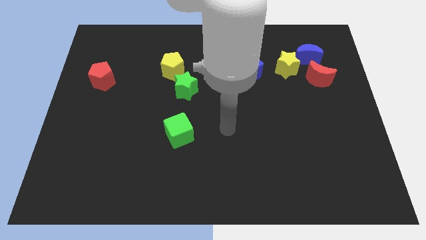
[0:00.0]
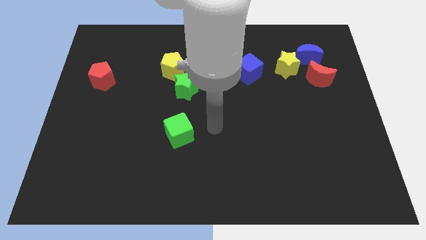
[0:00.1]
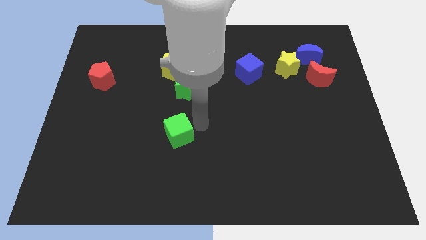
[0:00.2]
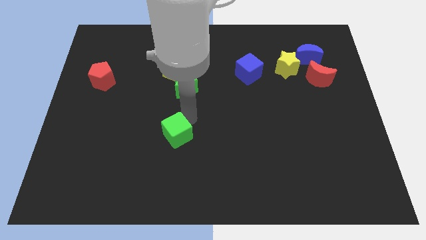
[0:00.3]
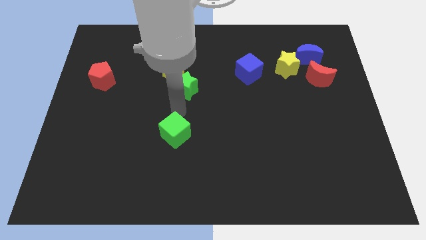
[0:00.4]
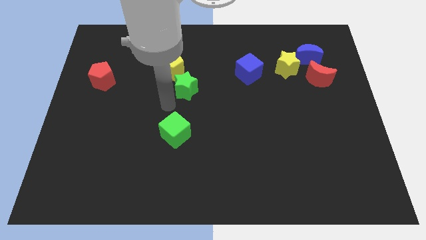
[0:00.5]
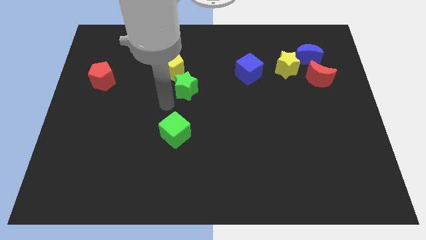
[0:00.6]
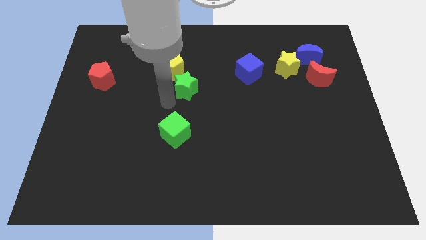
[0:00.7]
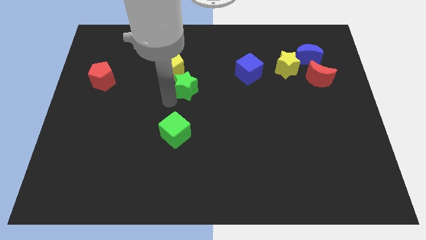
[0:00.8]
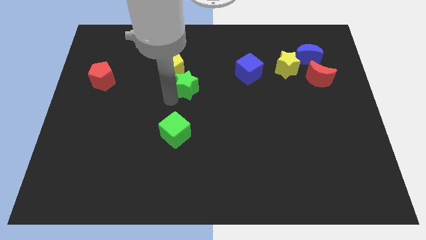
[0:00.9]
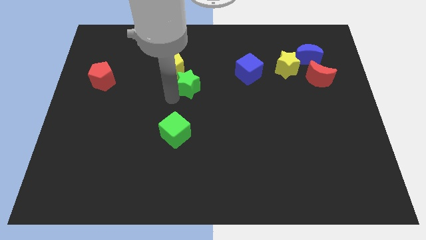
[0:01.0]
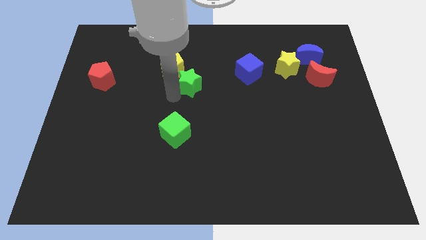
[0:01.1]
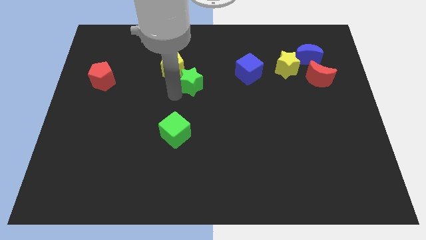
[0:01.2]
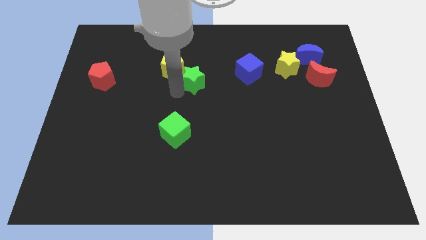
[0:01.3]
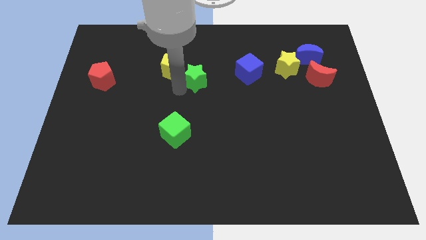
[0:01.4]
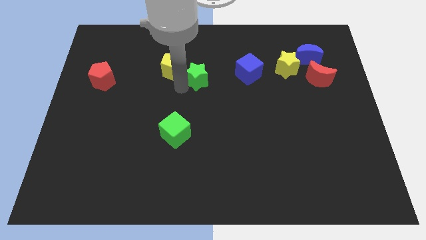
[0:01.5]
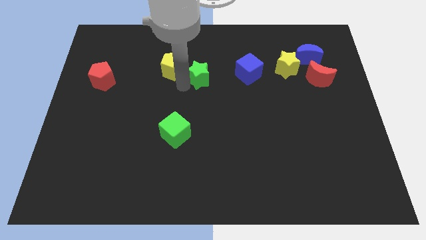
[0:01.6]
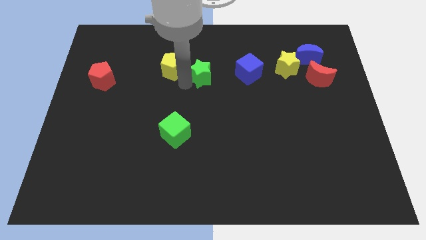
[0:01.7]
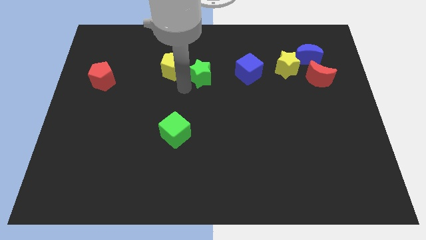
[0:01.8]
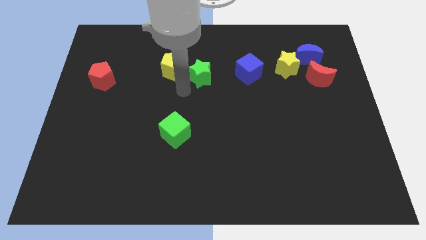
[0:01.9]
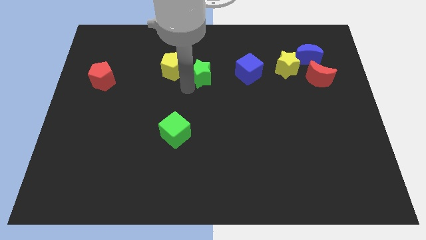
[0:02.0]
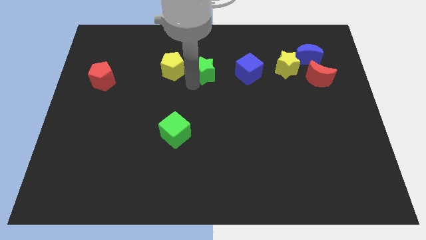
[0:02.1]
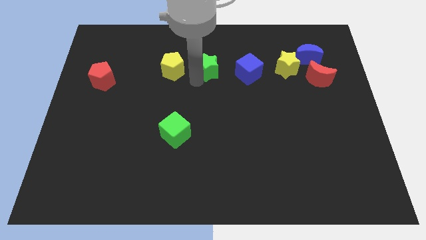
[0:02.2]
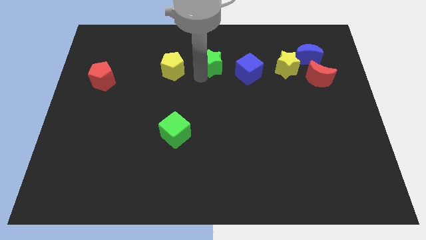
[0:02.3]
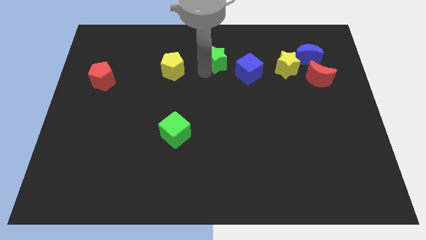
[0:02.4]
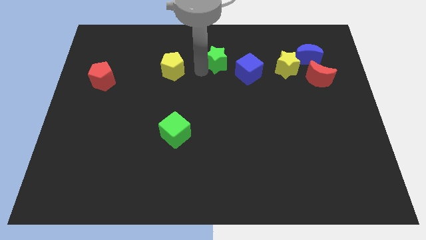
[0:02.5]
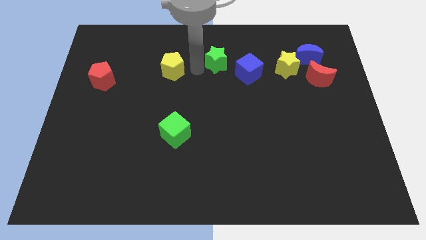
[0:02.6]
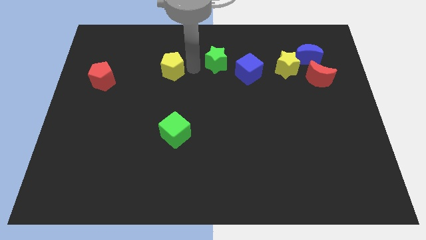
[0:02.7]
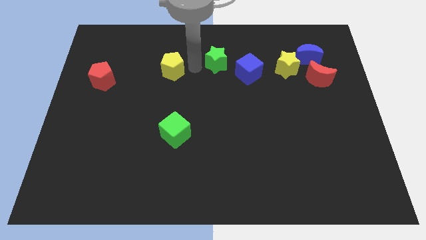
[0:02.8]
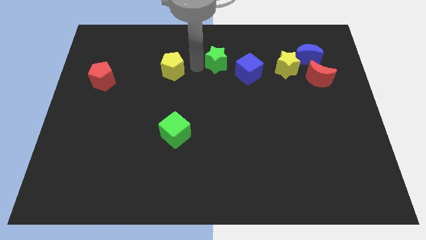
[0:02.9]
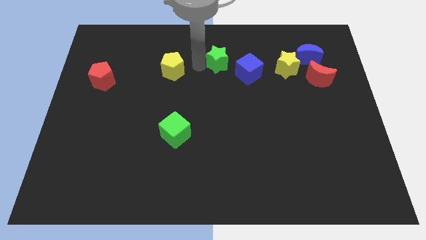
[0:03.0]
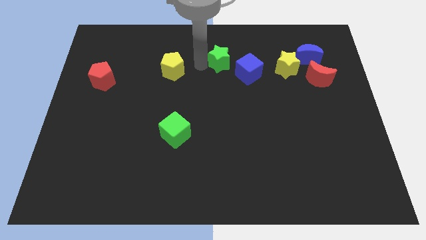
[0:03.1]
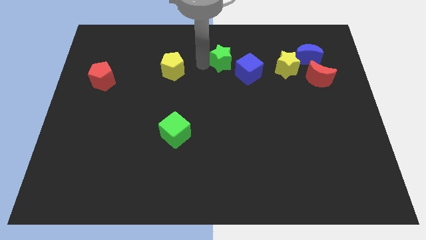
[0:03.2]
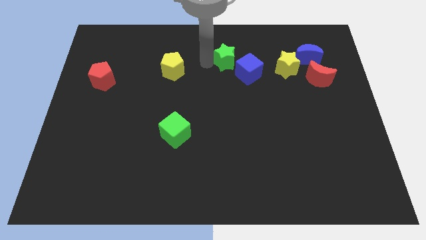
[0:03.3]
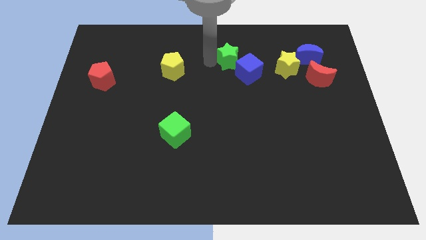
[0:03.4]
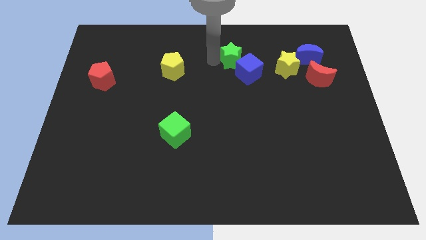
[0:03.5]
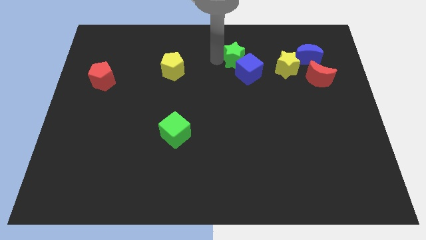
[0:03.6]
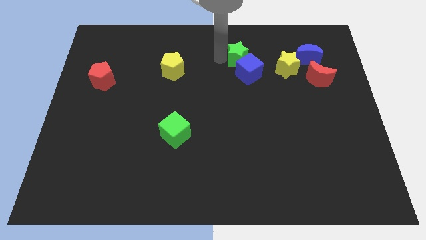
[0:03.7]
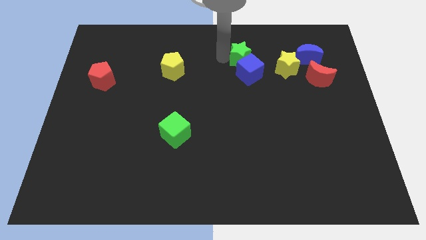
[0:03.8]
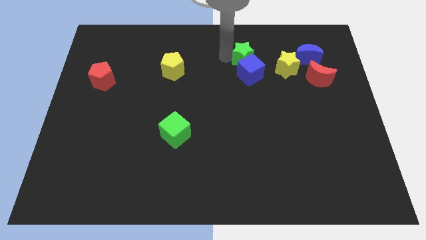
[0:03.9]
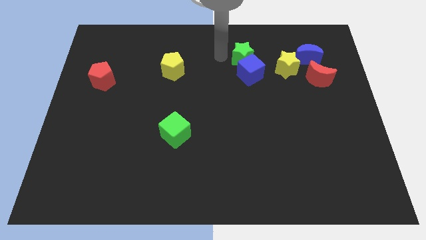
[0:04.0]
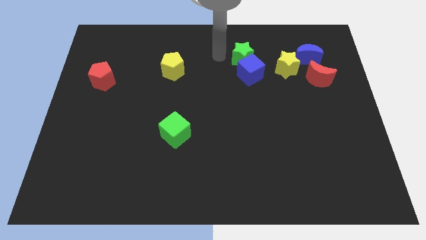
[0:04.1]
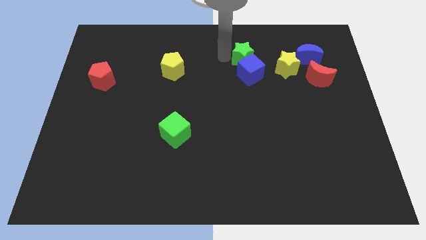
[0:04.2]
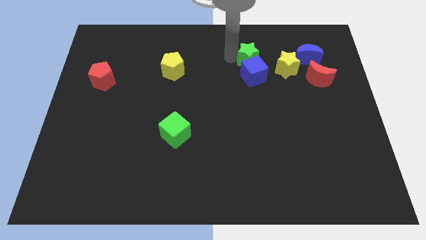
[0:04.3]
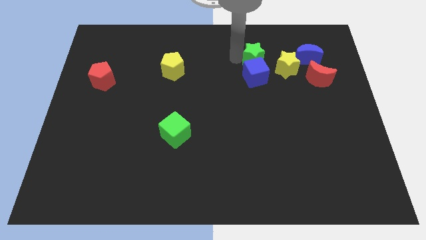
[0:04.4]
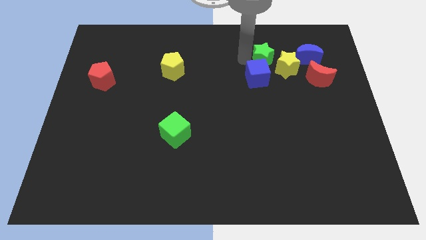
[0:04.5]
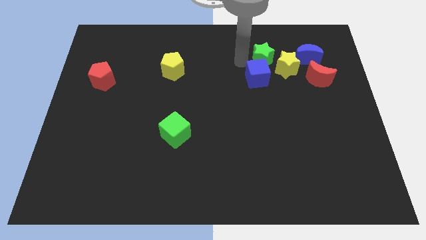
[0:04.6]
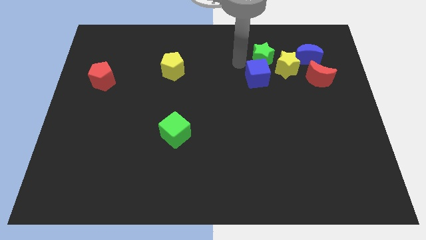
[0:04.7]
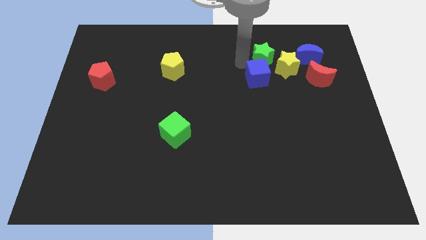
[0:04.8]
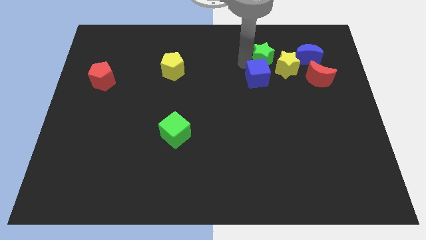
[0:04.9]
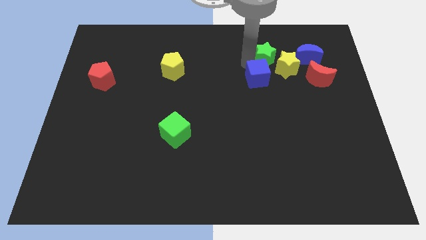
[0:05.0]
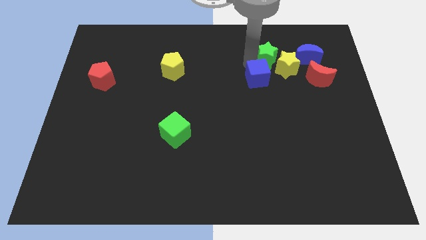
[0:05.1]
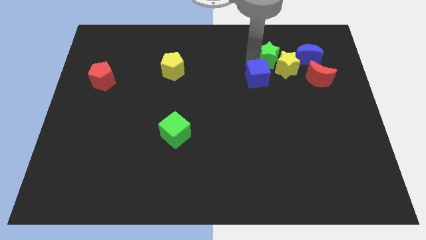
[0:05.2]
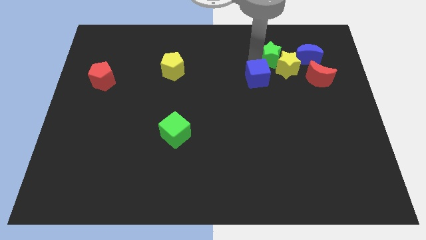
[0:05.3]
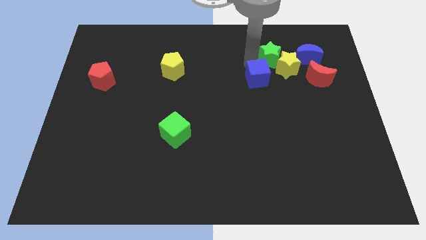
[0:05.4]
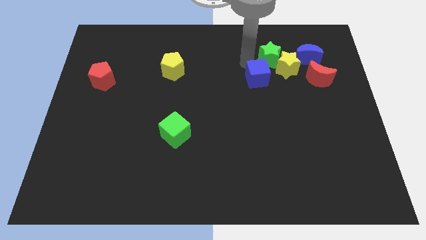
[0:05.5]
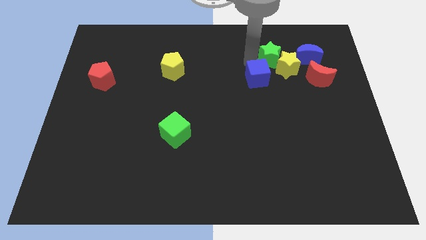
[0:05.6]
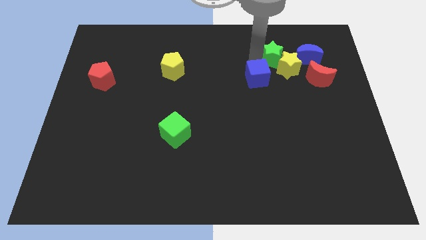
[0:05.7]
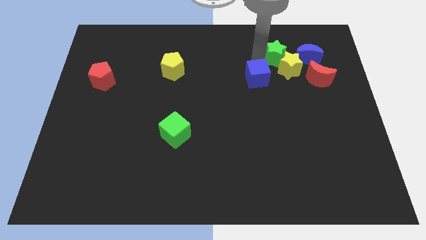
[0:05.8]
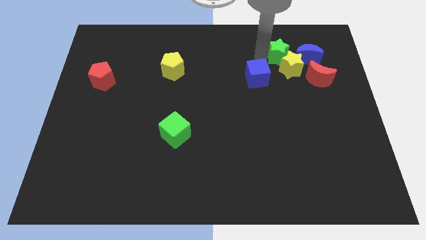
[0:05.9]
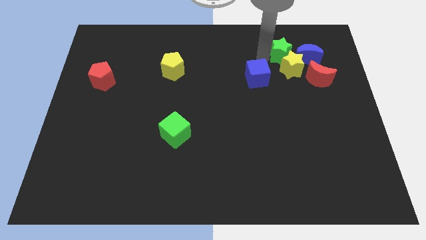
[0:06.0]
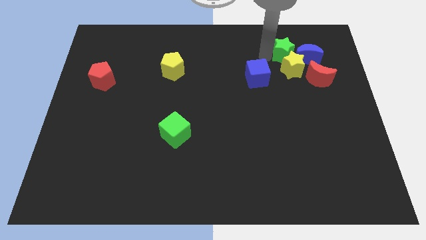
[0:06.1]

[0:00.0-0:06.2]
push the green star towards the blue moon

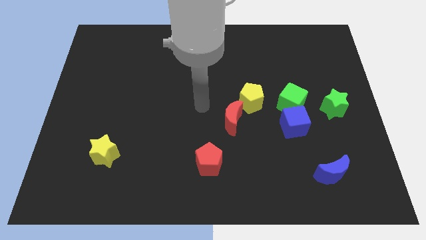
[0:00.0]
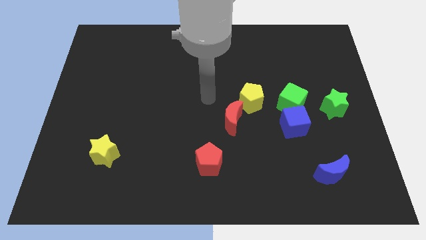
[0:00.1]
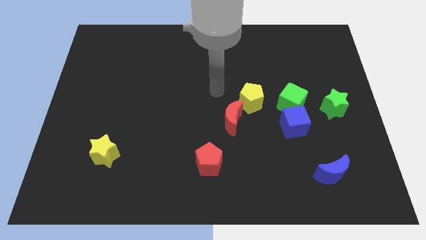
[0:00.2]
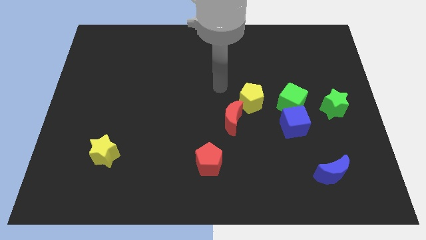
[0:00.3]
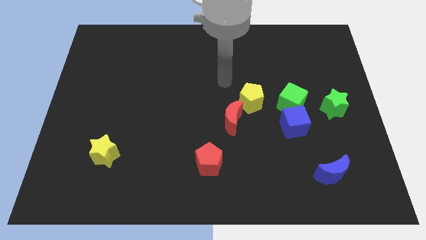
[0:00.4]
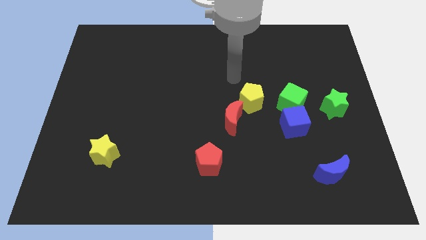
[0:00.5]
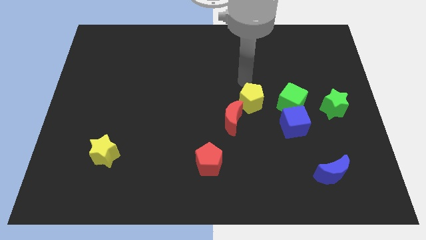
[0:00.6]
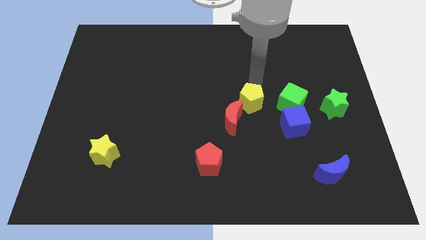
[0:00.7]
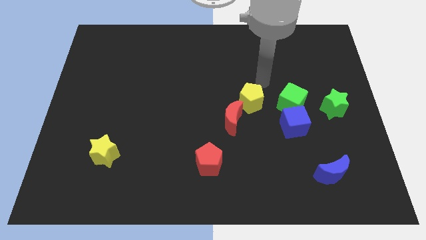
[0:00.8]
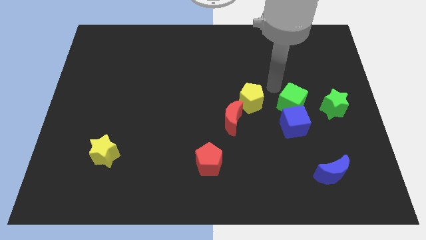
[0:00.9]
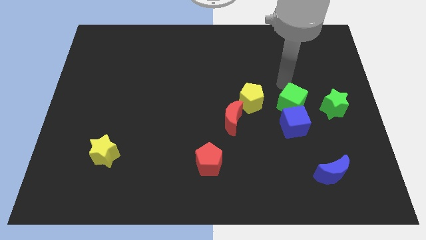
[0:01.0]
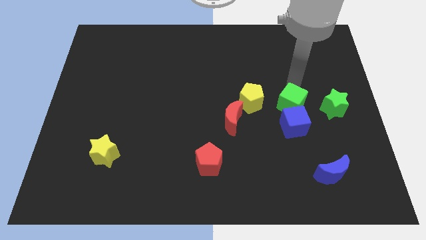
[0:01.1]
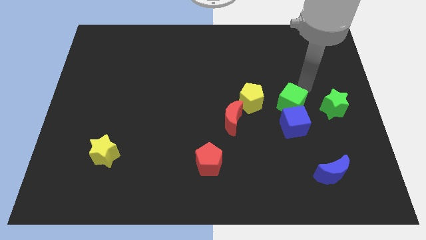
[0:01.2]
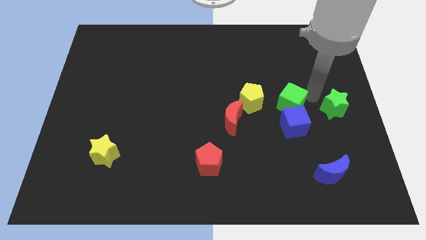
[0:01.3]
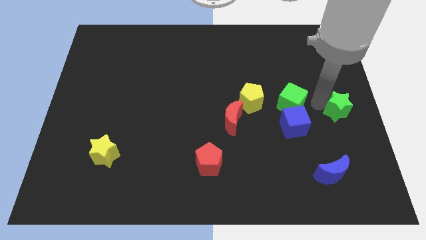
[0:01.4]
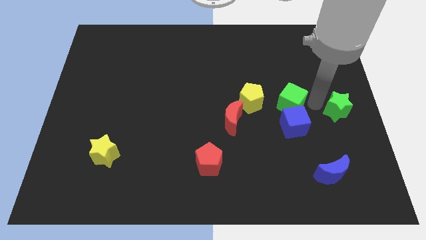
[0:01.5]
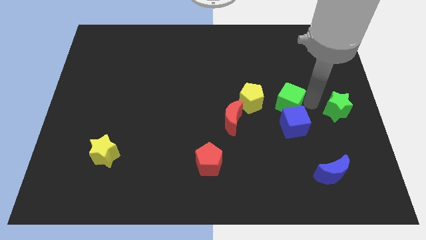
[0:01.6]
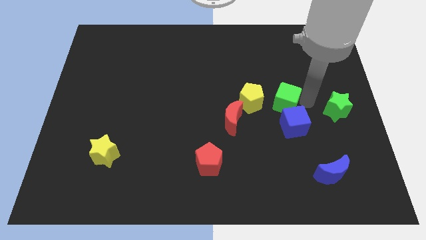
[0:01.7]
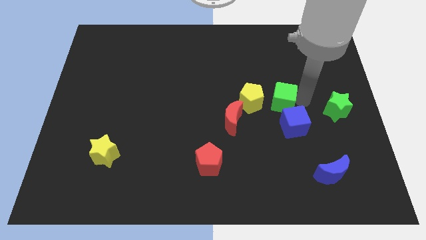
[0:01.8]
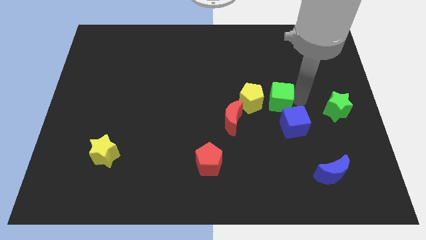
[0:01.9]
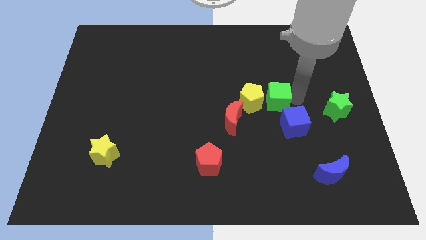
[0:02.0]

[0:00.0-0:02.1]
put the green cube close to the yellow pentagon
